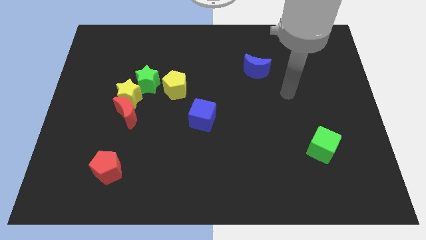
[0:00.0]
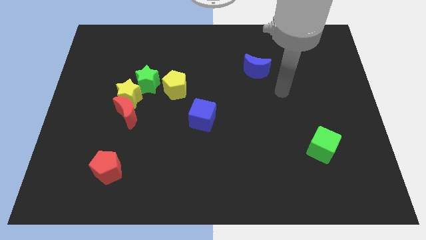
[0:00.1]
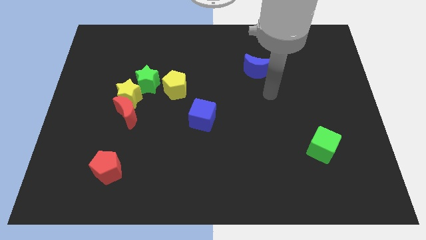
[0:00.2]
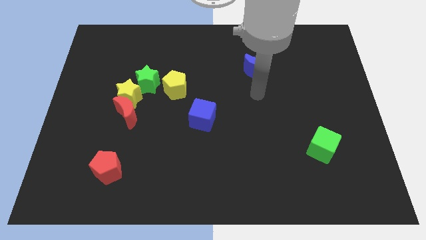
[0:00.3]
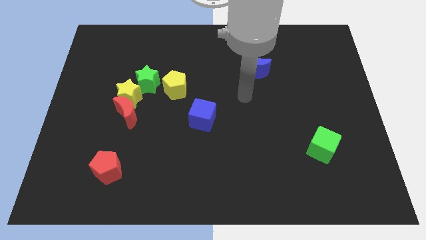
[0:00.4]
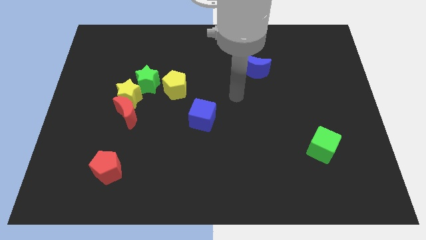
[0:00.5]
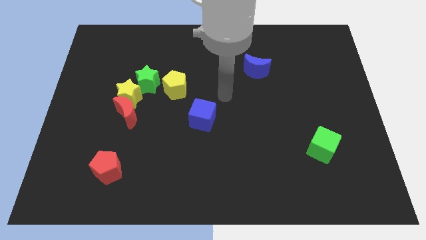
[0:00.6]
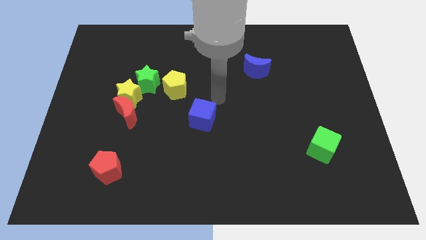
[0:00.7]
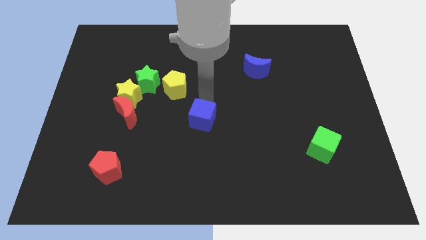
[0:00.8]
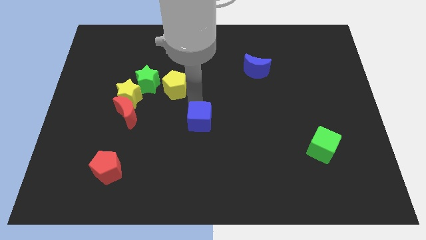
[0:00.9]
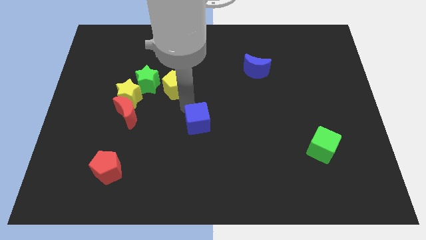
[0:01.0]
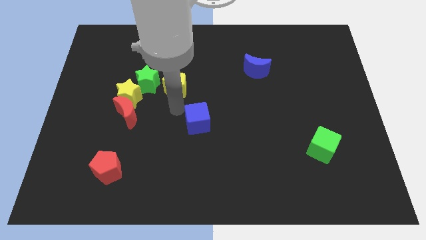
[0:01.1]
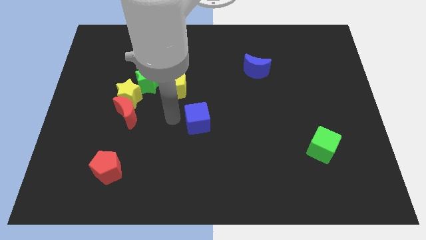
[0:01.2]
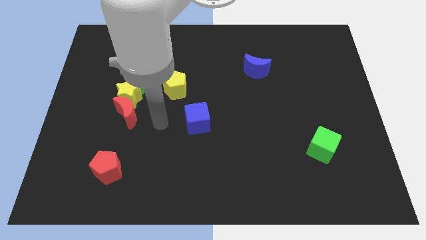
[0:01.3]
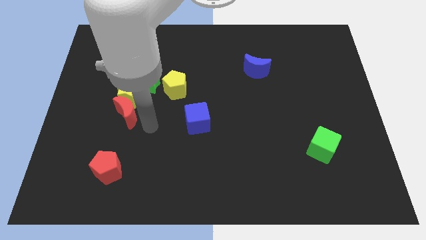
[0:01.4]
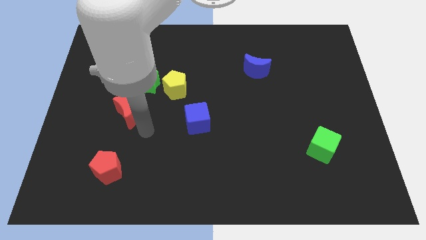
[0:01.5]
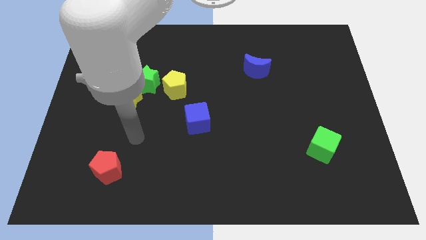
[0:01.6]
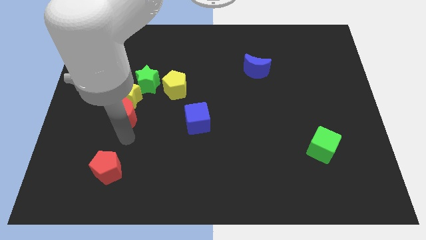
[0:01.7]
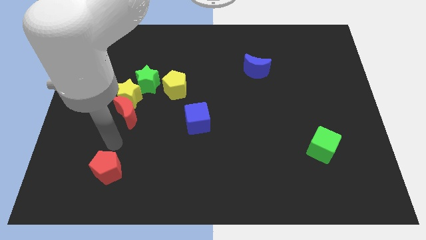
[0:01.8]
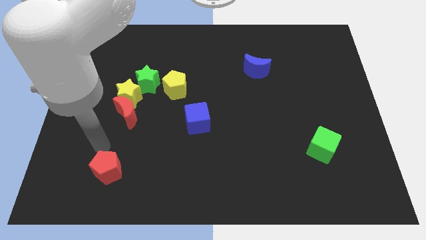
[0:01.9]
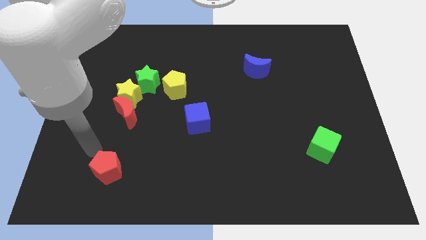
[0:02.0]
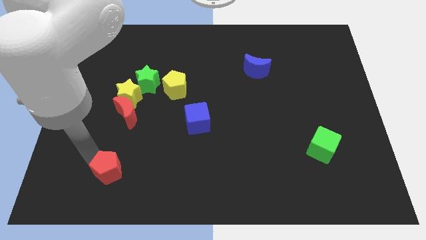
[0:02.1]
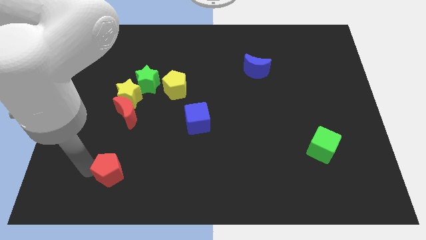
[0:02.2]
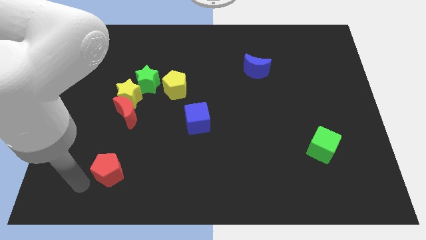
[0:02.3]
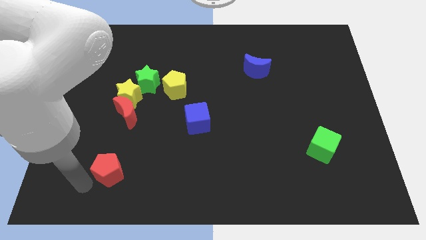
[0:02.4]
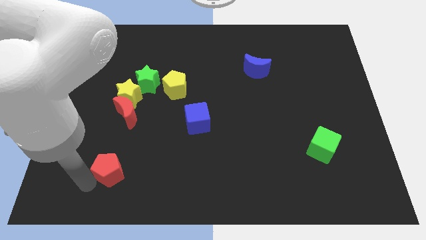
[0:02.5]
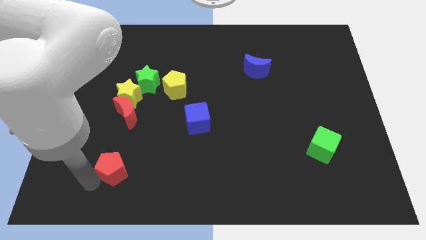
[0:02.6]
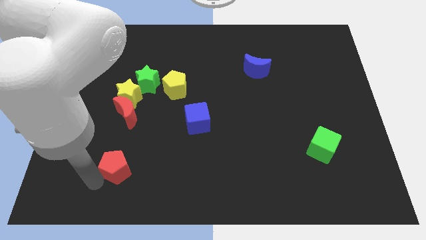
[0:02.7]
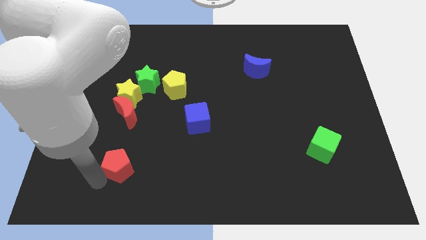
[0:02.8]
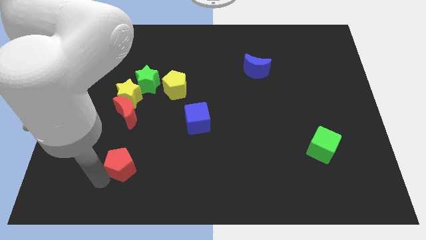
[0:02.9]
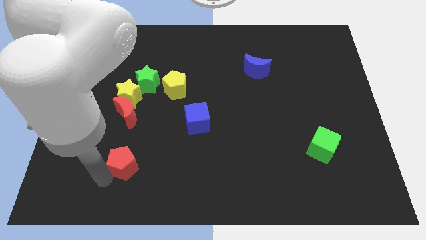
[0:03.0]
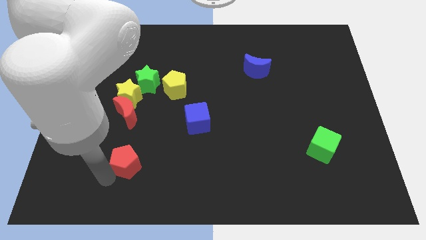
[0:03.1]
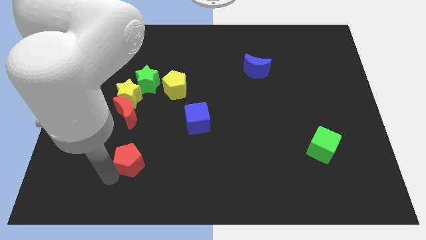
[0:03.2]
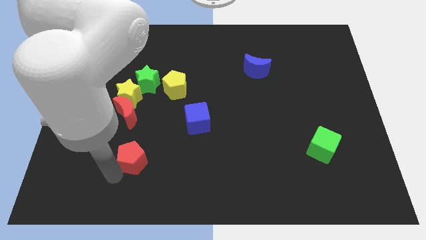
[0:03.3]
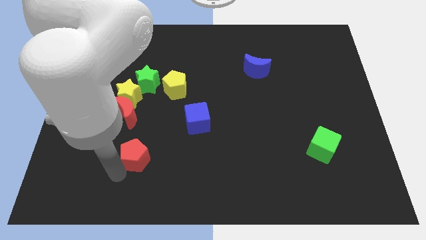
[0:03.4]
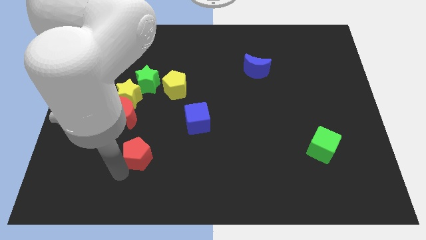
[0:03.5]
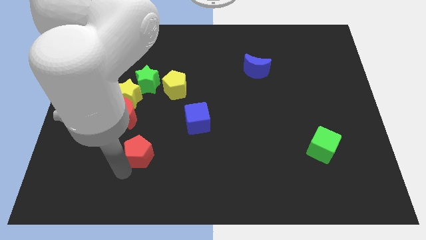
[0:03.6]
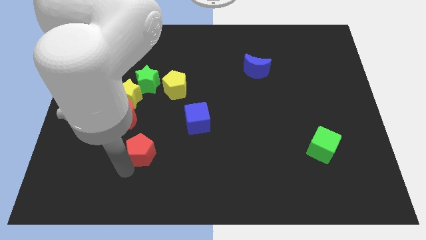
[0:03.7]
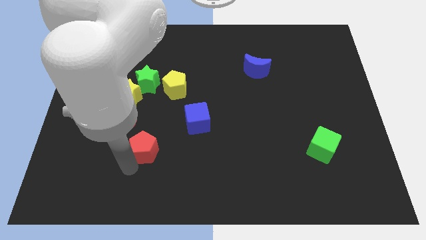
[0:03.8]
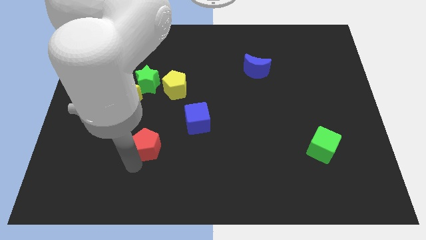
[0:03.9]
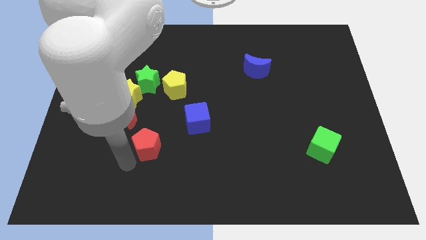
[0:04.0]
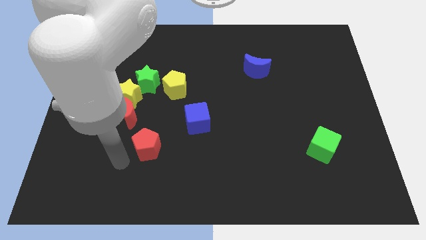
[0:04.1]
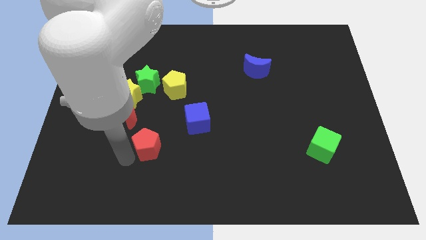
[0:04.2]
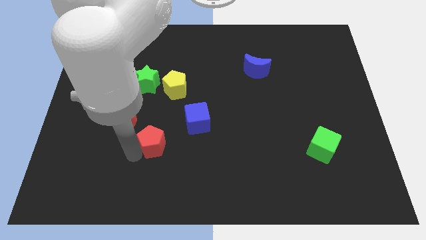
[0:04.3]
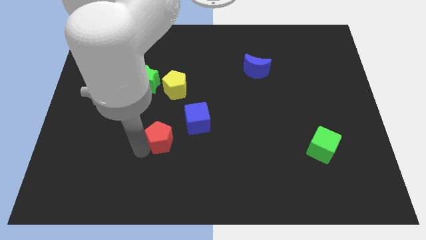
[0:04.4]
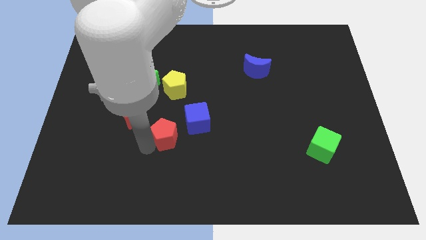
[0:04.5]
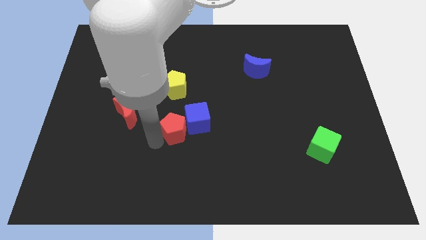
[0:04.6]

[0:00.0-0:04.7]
put the red pentagon to the blue cube

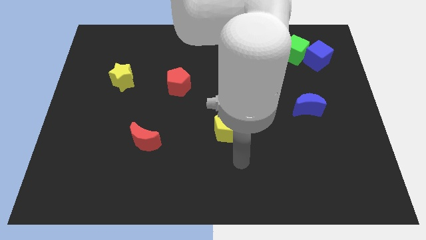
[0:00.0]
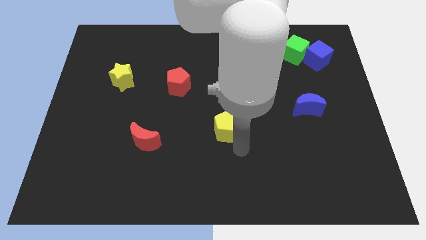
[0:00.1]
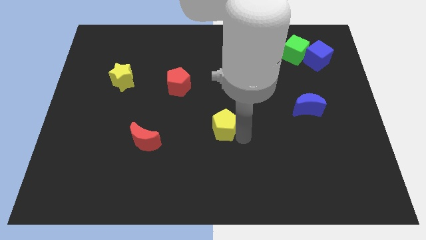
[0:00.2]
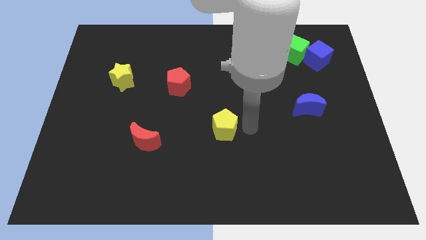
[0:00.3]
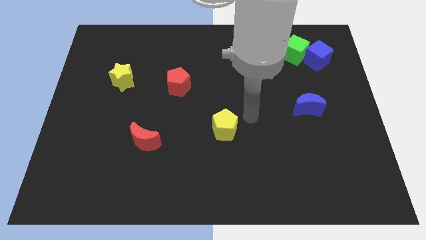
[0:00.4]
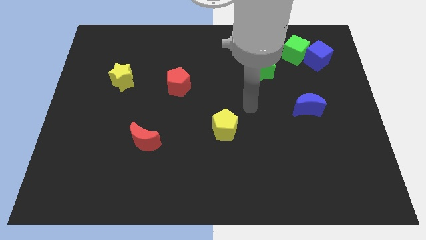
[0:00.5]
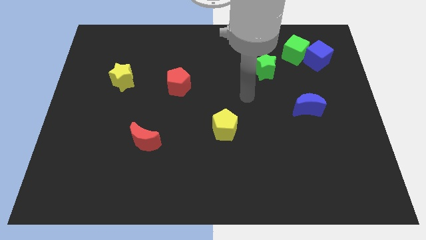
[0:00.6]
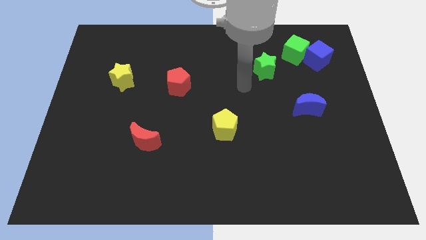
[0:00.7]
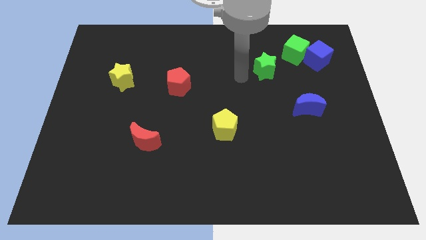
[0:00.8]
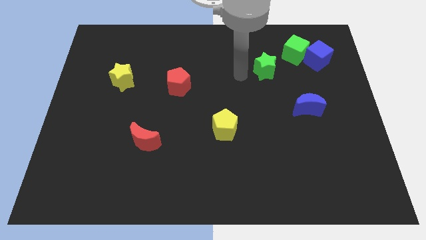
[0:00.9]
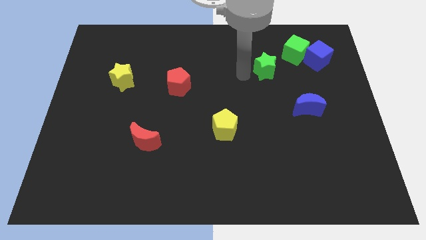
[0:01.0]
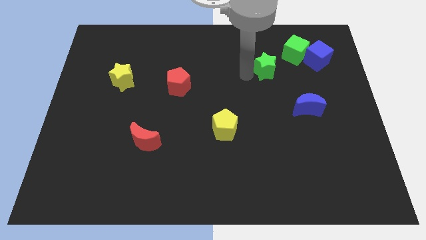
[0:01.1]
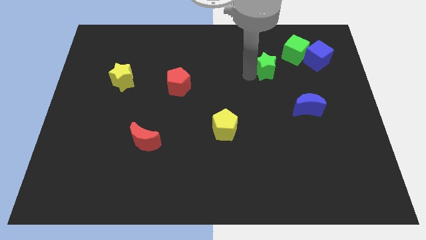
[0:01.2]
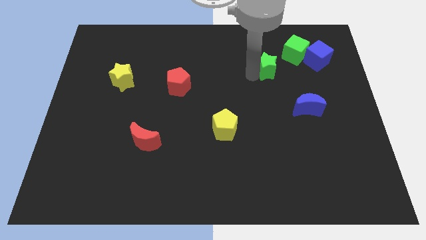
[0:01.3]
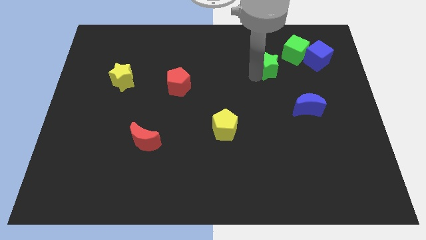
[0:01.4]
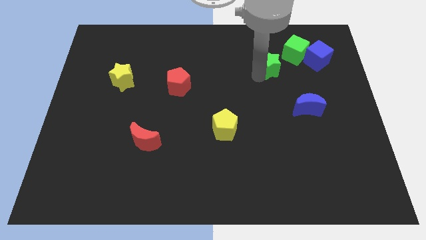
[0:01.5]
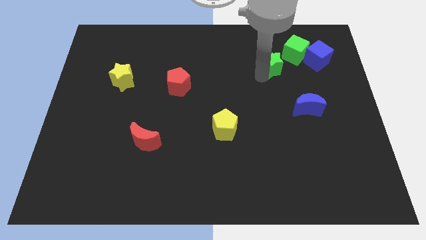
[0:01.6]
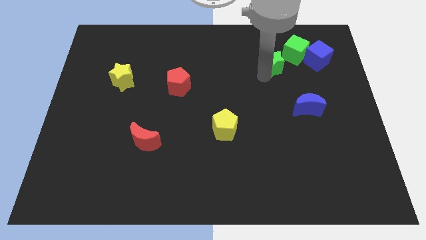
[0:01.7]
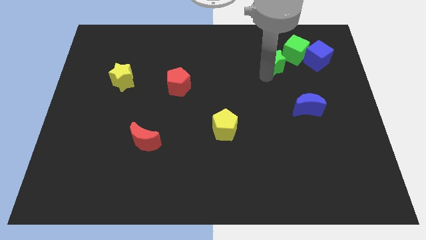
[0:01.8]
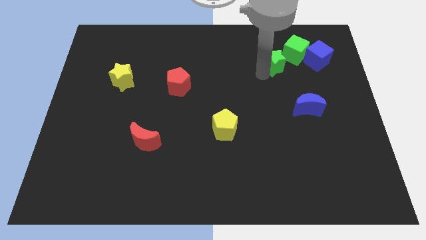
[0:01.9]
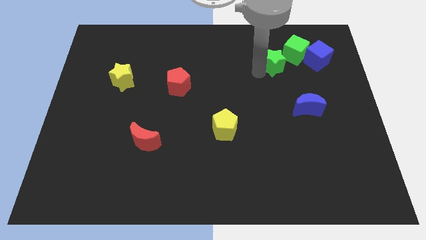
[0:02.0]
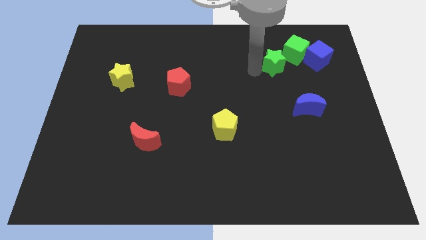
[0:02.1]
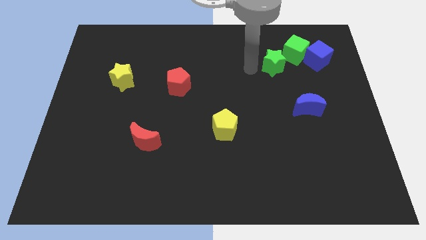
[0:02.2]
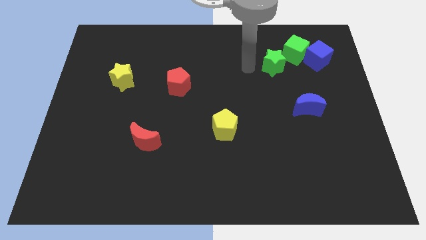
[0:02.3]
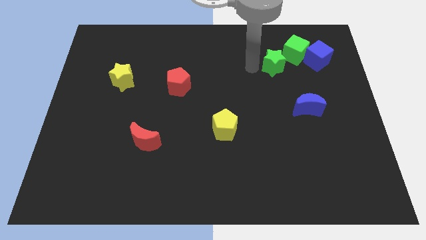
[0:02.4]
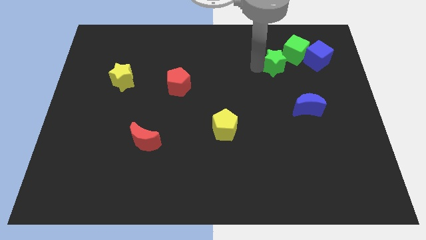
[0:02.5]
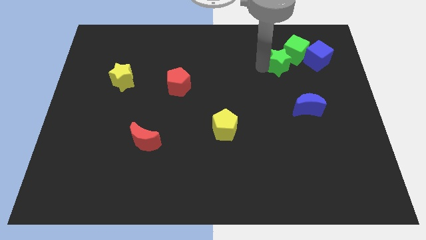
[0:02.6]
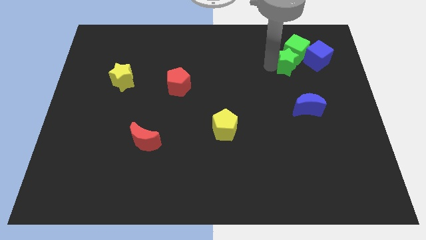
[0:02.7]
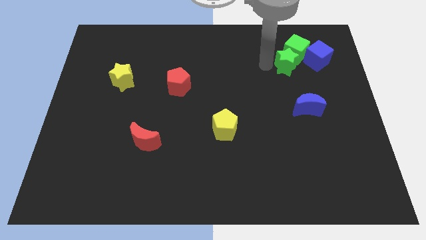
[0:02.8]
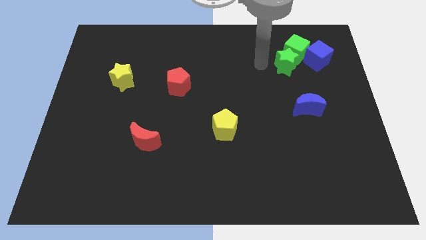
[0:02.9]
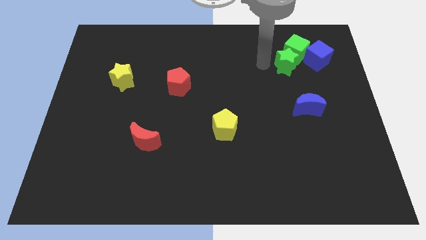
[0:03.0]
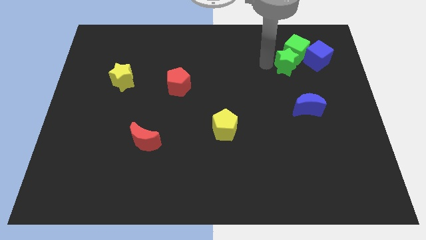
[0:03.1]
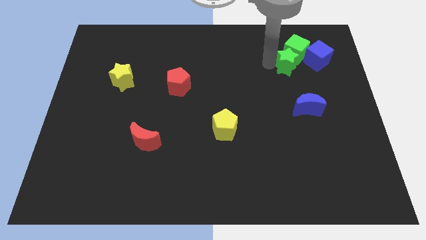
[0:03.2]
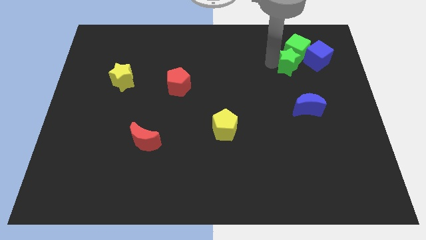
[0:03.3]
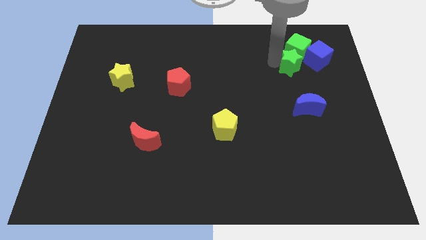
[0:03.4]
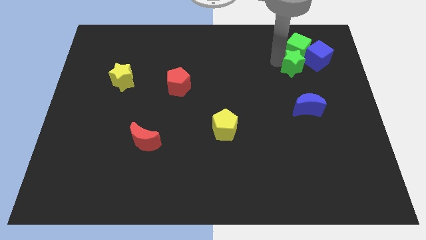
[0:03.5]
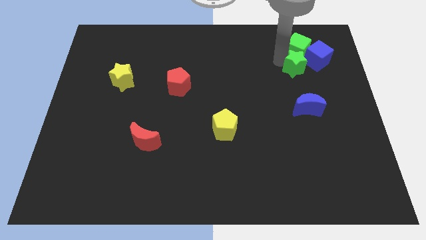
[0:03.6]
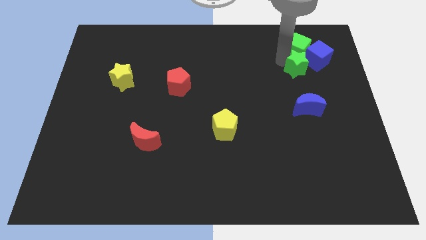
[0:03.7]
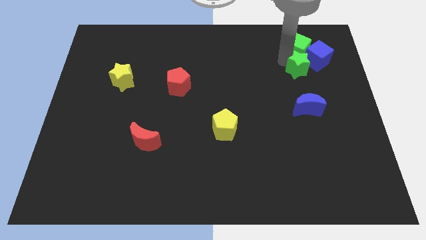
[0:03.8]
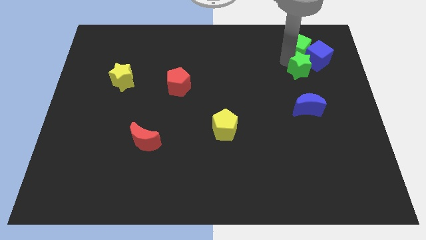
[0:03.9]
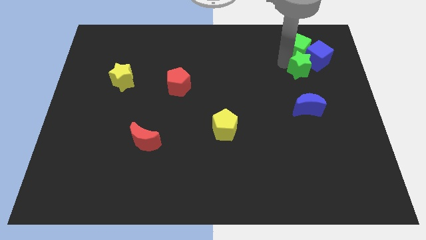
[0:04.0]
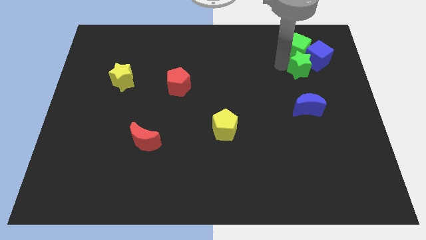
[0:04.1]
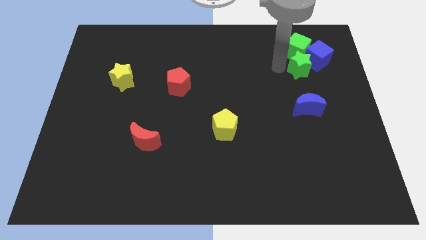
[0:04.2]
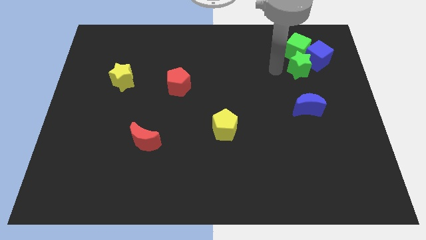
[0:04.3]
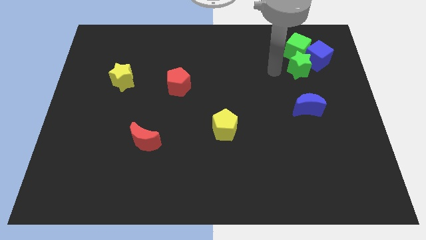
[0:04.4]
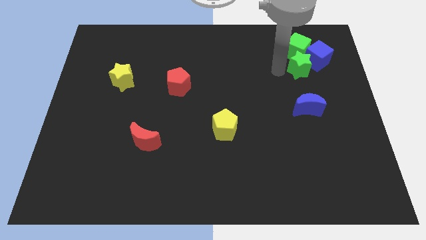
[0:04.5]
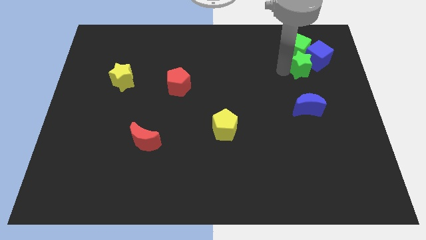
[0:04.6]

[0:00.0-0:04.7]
slide the green star close to the blue cube
